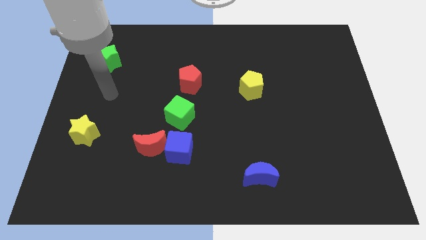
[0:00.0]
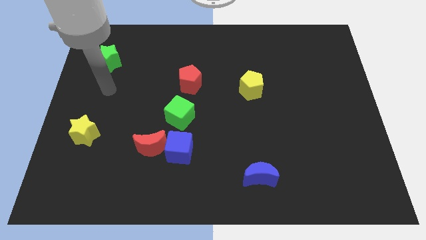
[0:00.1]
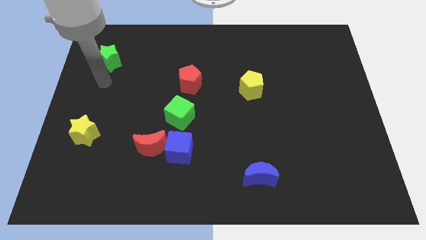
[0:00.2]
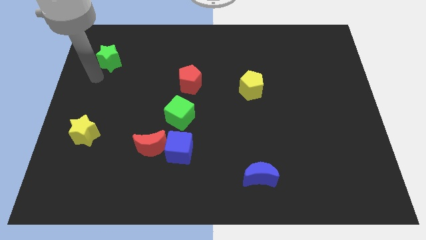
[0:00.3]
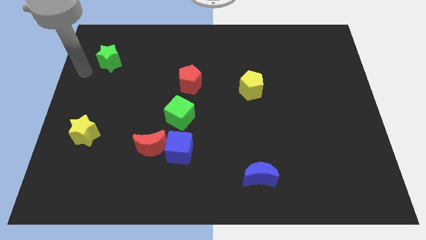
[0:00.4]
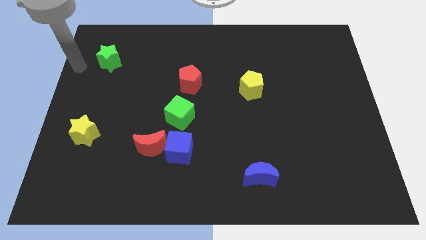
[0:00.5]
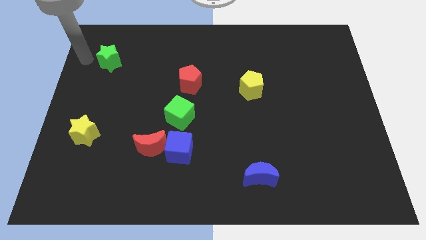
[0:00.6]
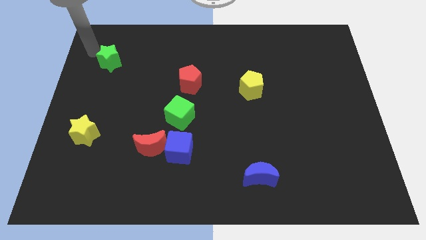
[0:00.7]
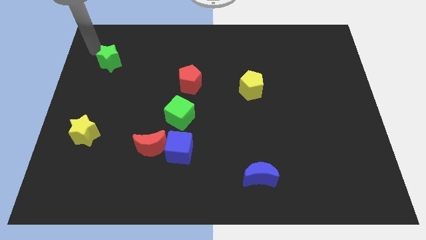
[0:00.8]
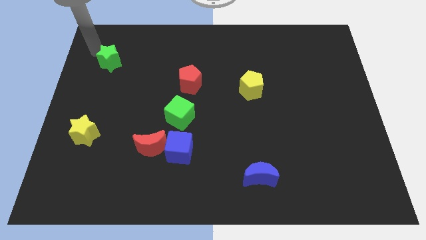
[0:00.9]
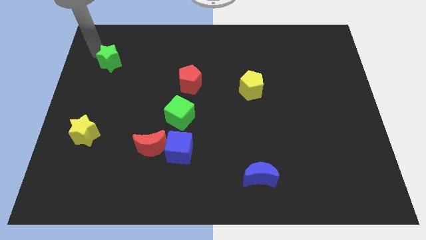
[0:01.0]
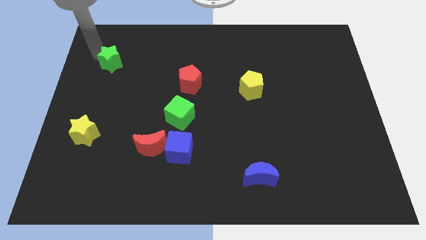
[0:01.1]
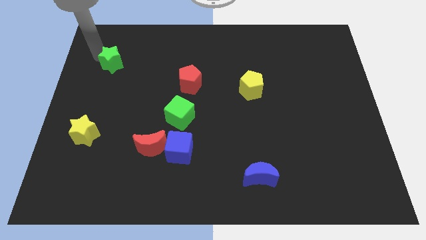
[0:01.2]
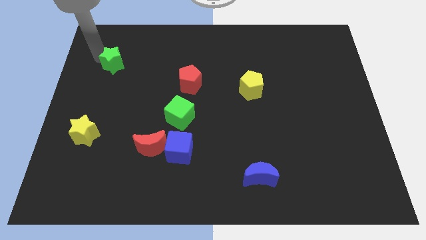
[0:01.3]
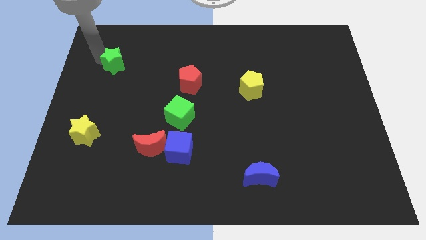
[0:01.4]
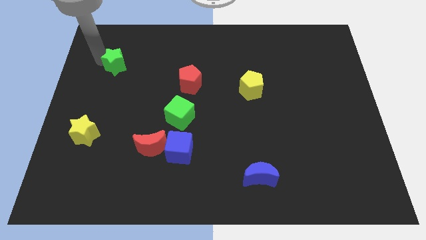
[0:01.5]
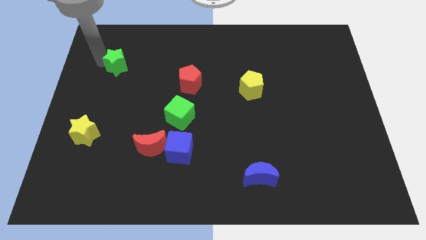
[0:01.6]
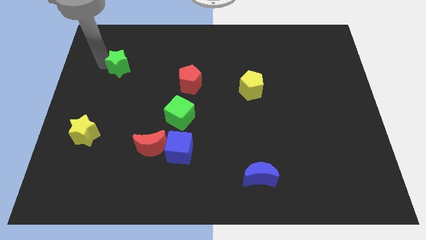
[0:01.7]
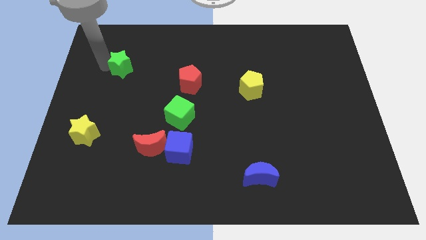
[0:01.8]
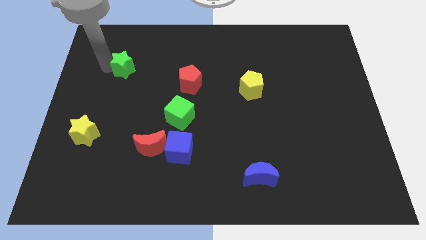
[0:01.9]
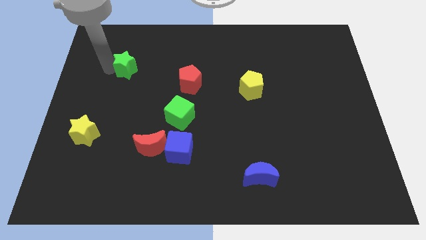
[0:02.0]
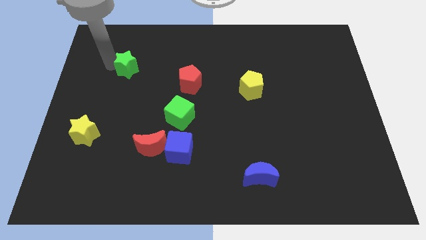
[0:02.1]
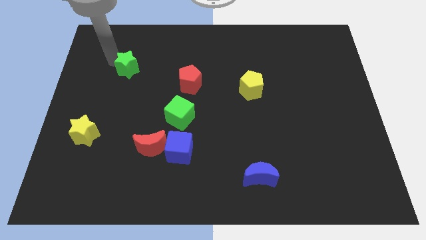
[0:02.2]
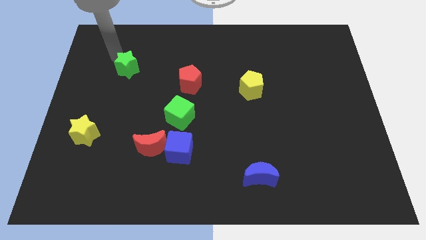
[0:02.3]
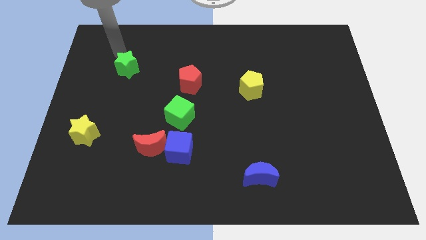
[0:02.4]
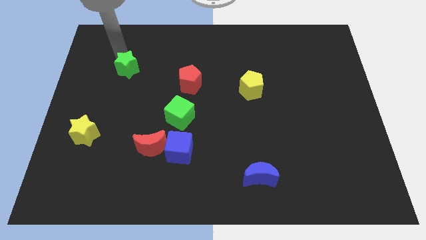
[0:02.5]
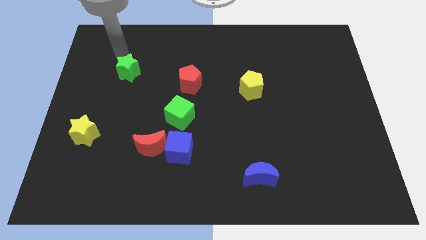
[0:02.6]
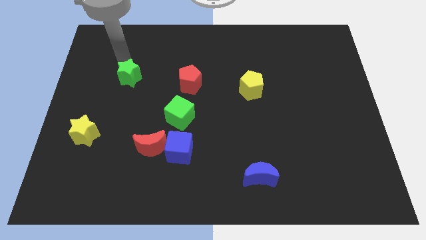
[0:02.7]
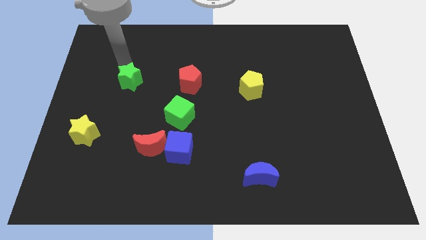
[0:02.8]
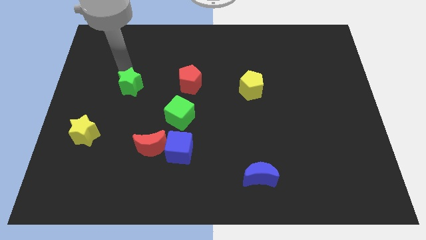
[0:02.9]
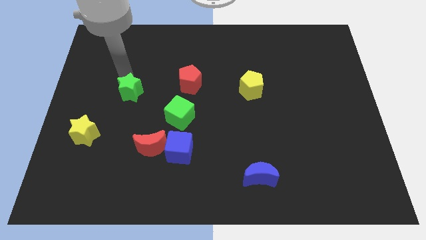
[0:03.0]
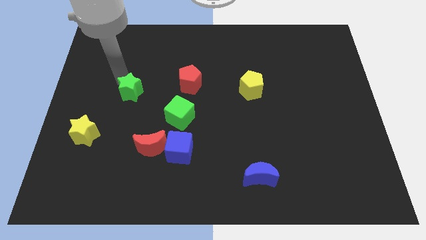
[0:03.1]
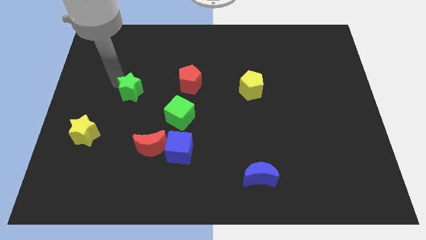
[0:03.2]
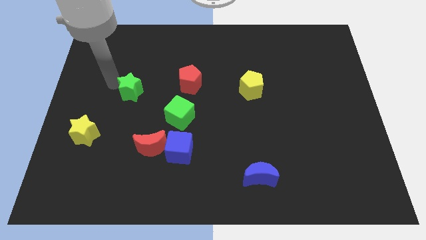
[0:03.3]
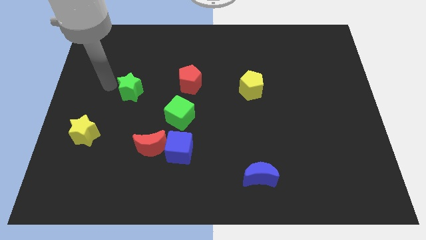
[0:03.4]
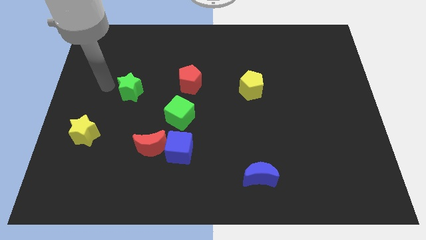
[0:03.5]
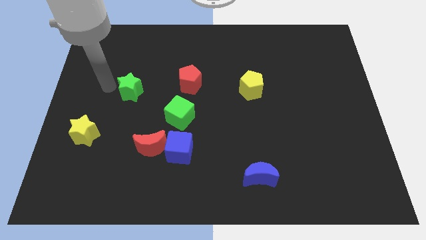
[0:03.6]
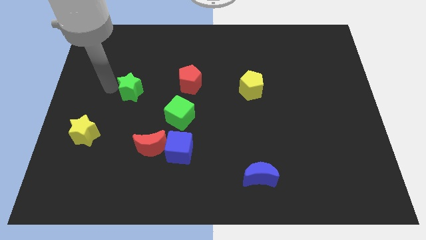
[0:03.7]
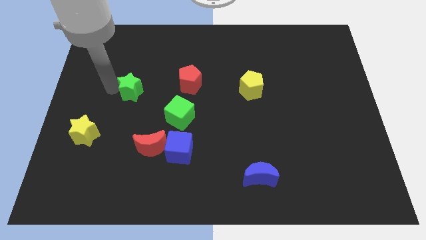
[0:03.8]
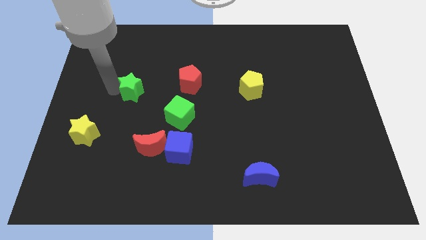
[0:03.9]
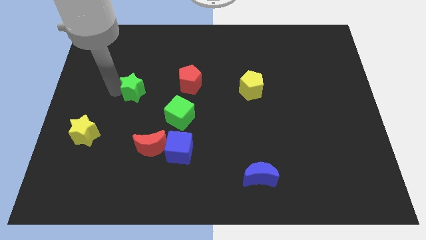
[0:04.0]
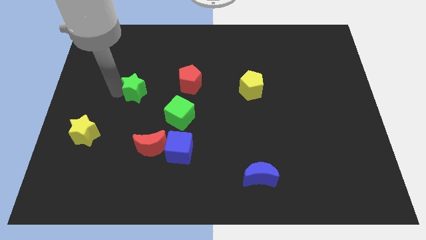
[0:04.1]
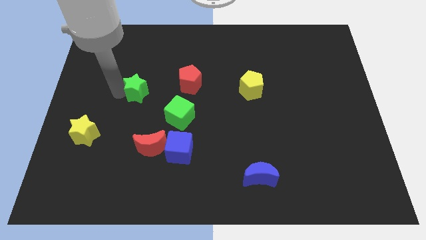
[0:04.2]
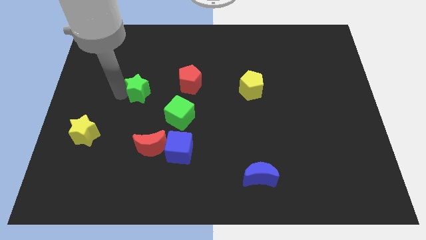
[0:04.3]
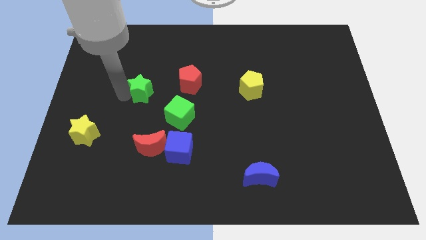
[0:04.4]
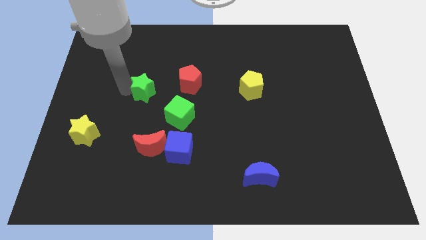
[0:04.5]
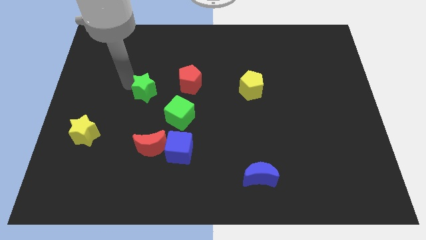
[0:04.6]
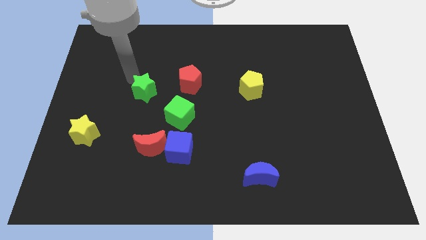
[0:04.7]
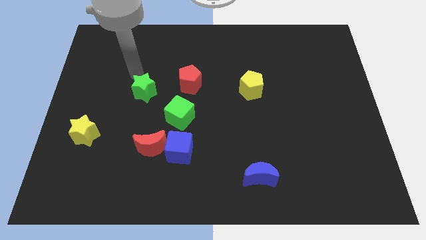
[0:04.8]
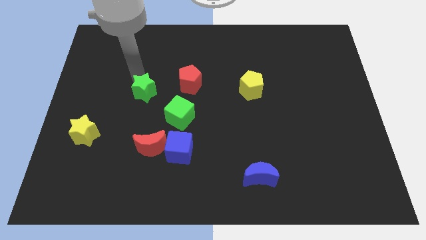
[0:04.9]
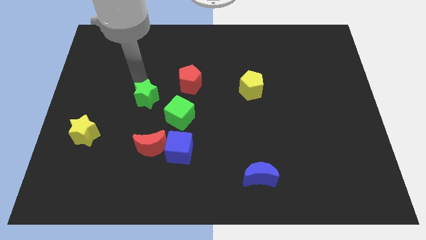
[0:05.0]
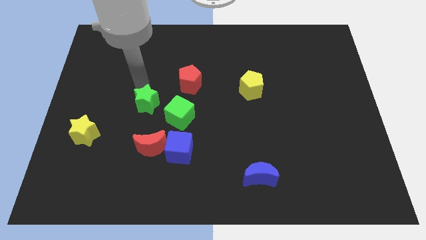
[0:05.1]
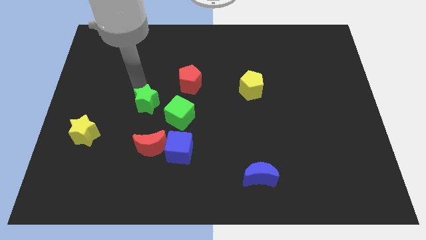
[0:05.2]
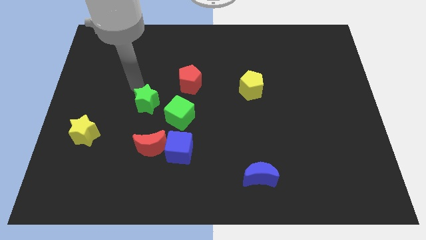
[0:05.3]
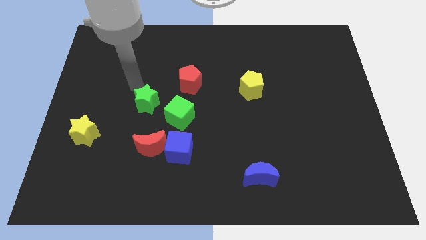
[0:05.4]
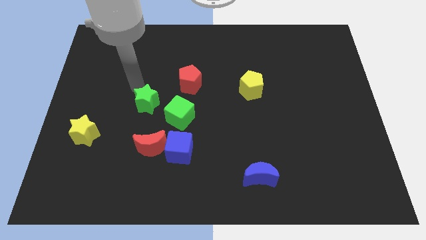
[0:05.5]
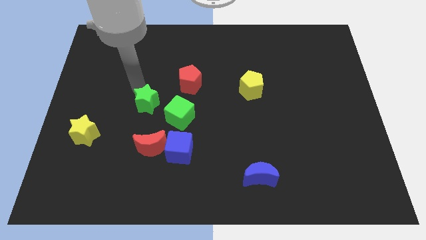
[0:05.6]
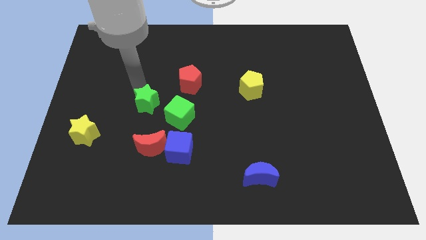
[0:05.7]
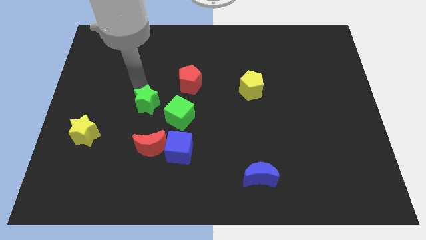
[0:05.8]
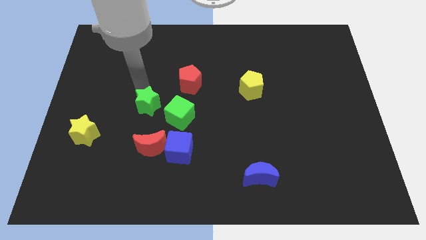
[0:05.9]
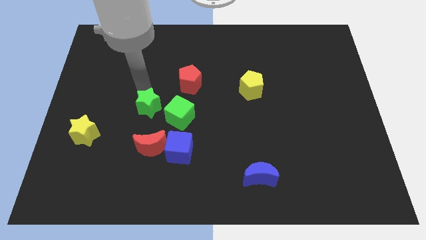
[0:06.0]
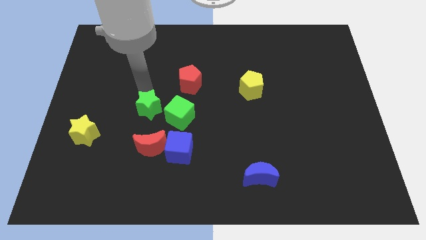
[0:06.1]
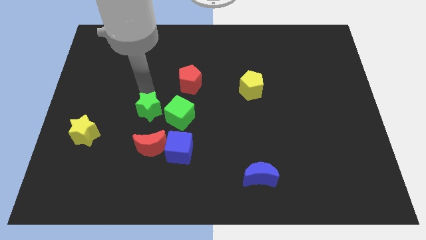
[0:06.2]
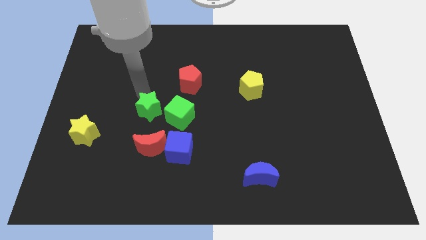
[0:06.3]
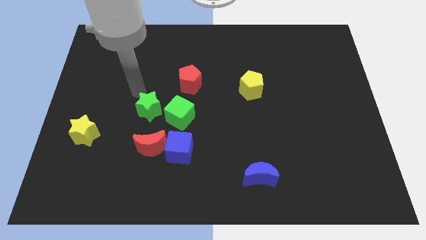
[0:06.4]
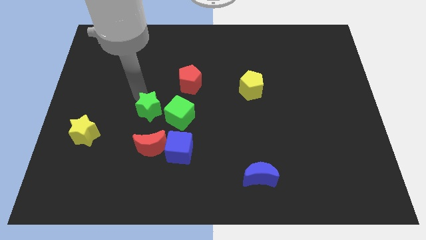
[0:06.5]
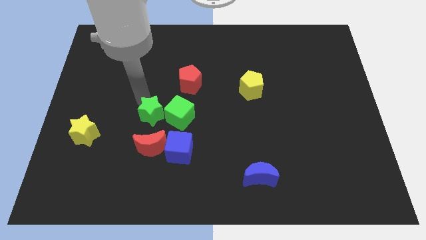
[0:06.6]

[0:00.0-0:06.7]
slide the green star down and then to the right

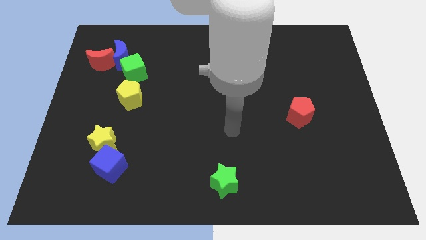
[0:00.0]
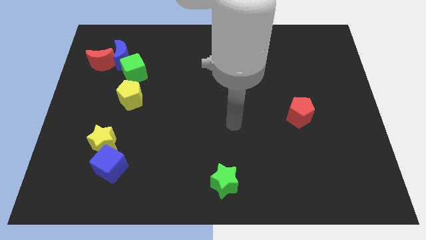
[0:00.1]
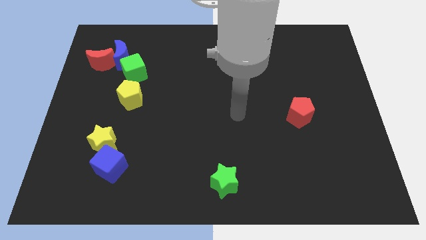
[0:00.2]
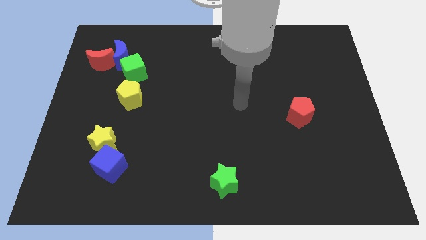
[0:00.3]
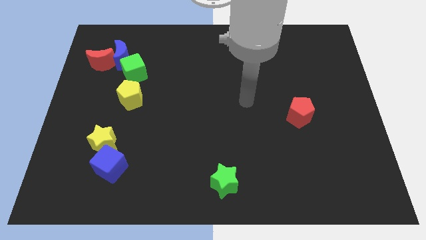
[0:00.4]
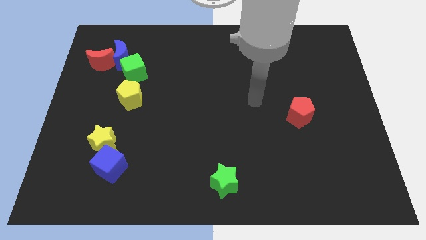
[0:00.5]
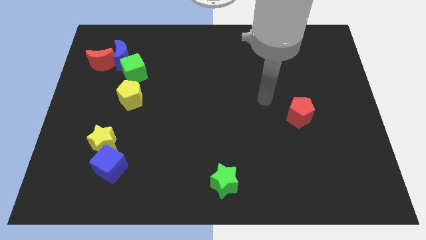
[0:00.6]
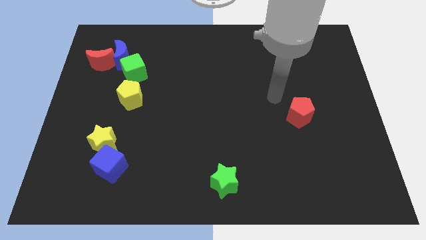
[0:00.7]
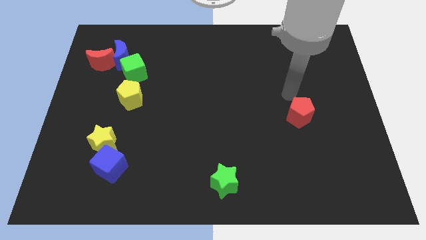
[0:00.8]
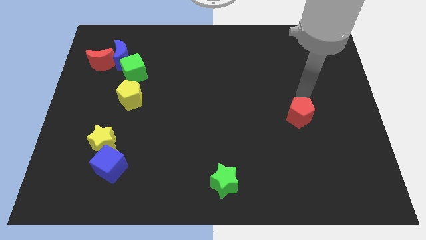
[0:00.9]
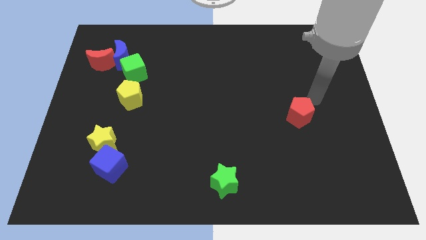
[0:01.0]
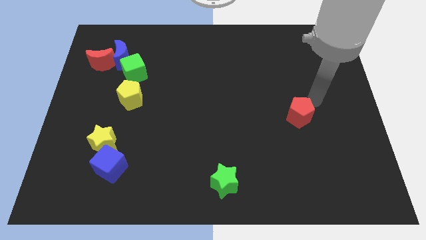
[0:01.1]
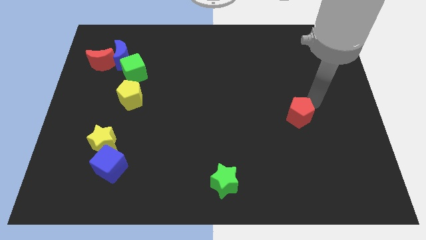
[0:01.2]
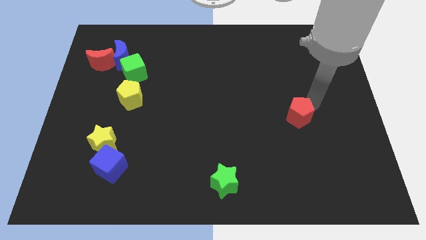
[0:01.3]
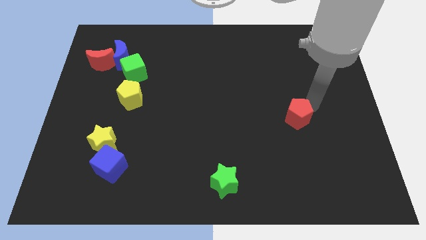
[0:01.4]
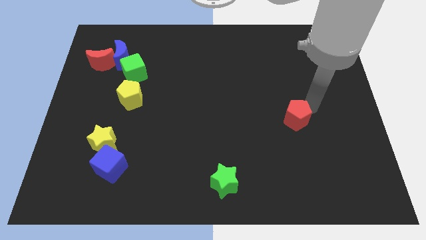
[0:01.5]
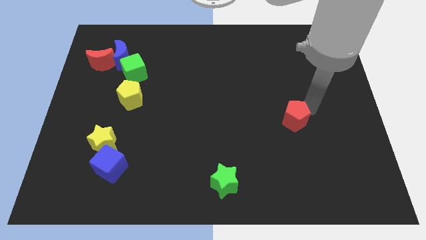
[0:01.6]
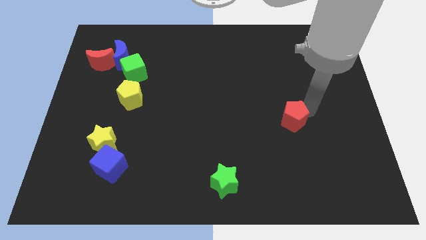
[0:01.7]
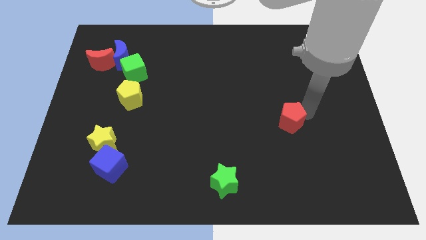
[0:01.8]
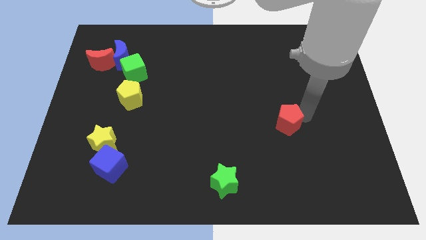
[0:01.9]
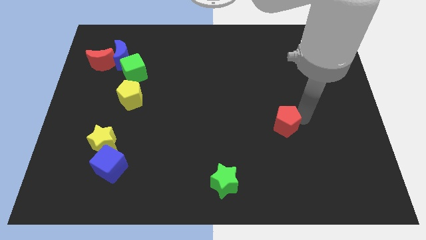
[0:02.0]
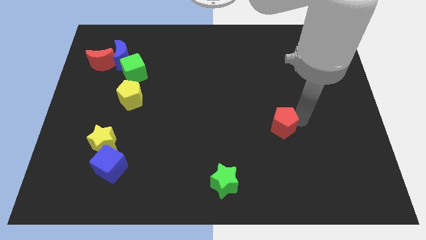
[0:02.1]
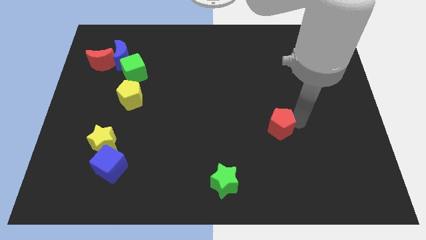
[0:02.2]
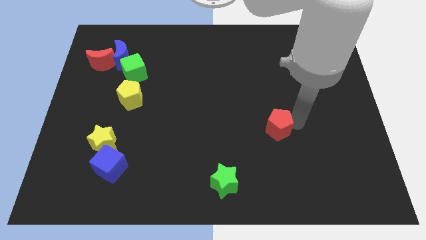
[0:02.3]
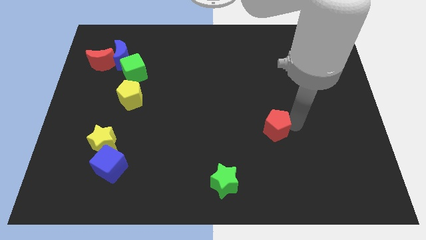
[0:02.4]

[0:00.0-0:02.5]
slightly push the red pentagon downwards and to the left
